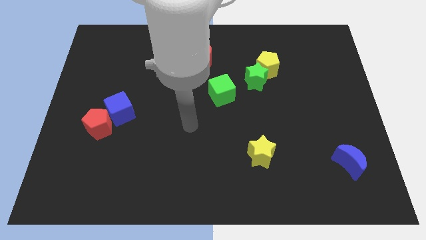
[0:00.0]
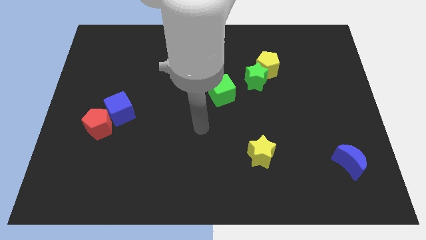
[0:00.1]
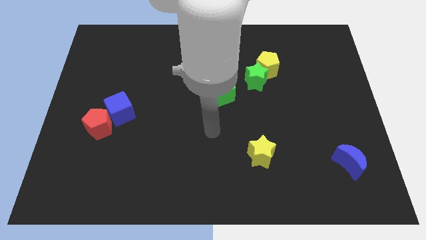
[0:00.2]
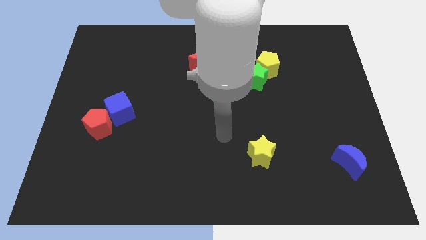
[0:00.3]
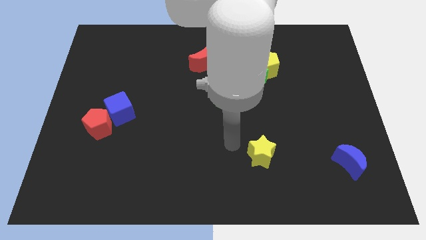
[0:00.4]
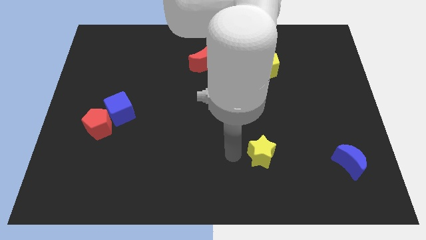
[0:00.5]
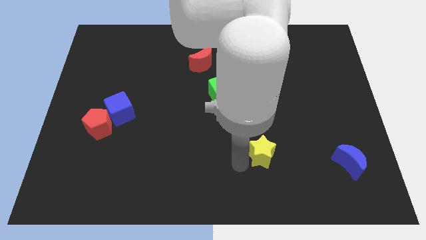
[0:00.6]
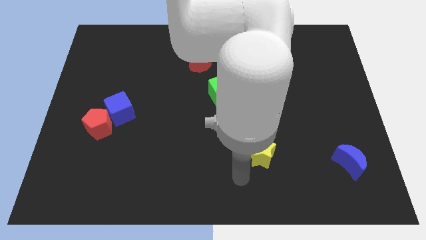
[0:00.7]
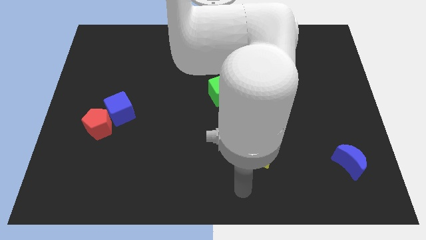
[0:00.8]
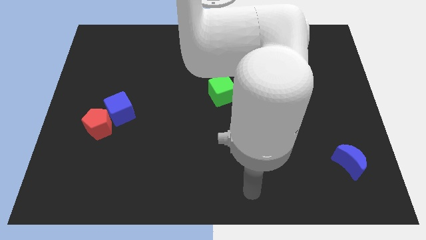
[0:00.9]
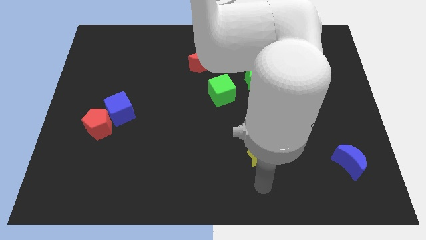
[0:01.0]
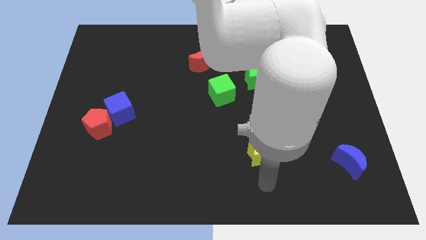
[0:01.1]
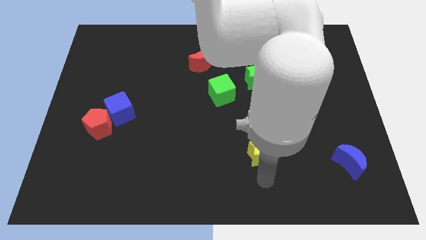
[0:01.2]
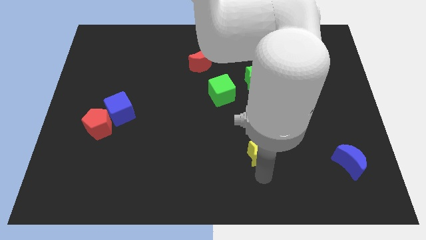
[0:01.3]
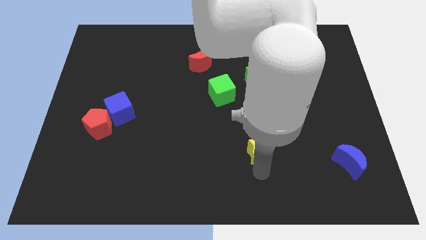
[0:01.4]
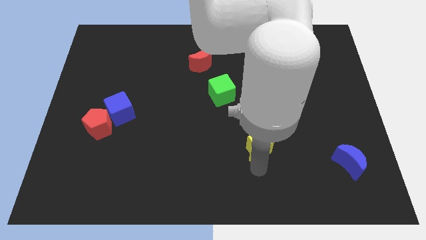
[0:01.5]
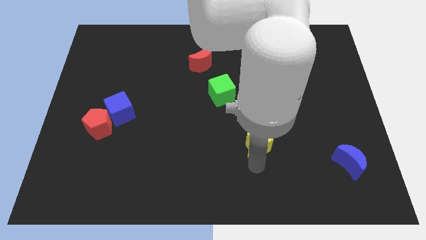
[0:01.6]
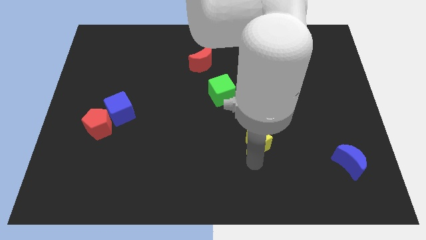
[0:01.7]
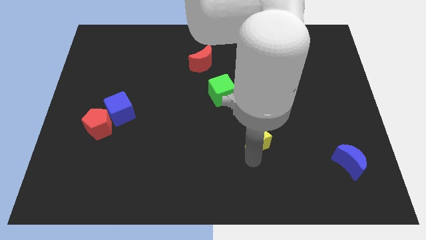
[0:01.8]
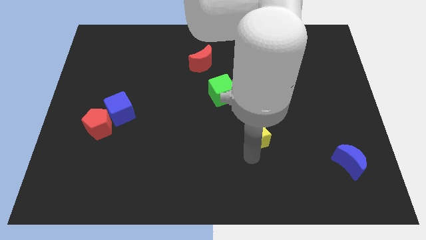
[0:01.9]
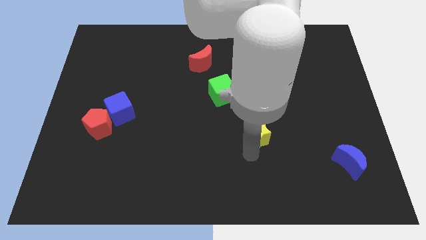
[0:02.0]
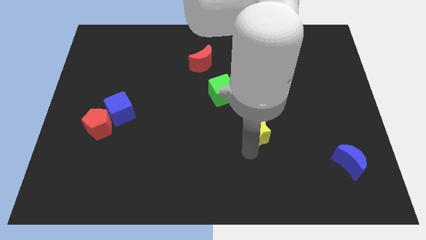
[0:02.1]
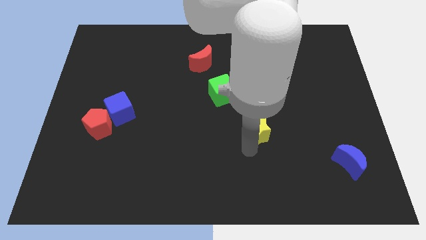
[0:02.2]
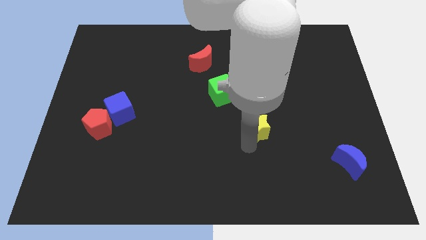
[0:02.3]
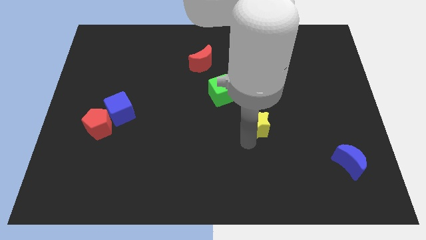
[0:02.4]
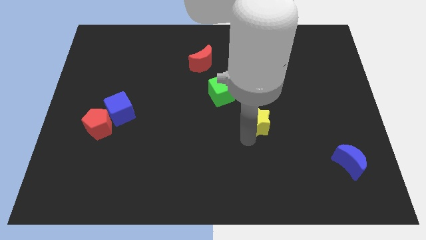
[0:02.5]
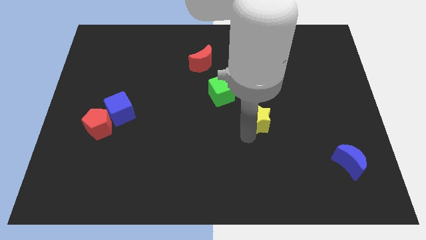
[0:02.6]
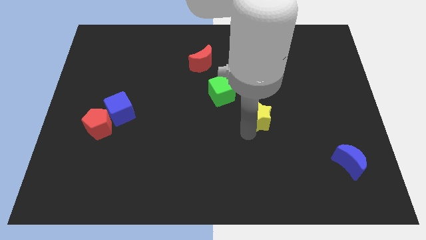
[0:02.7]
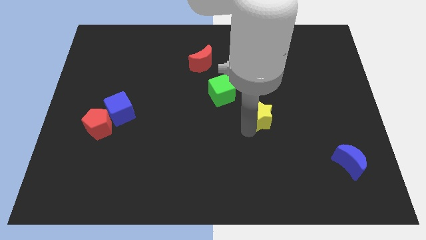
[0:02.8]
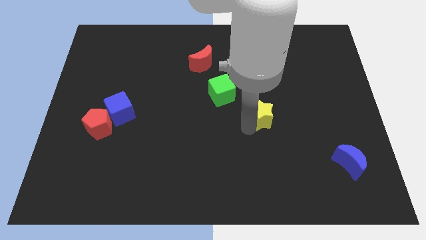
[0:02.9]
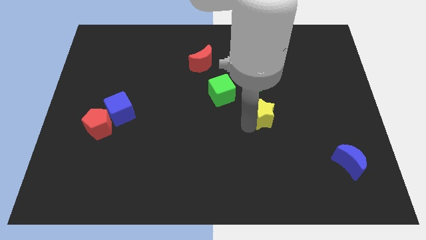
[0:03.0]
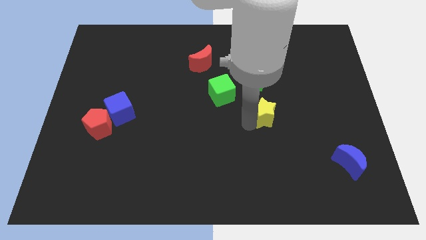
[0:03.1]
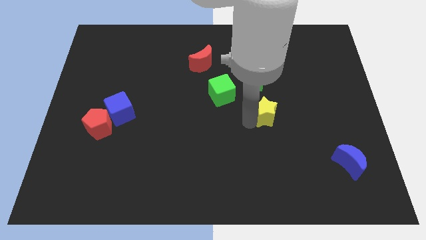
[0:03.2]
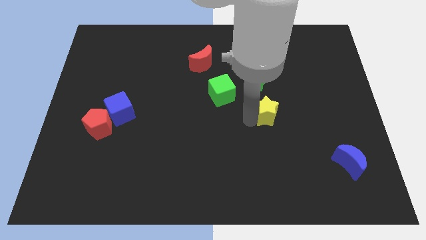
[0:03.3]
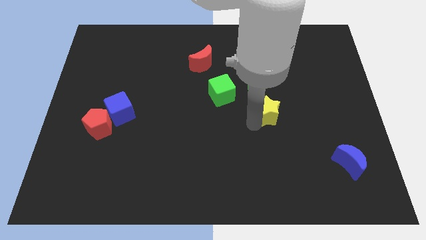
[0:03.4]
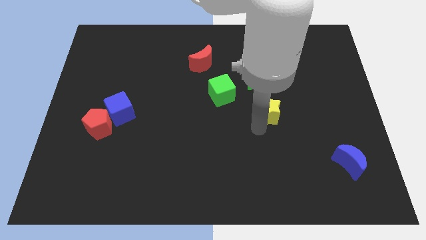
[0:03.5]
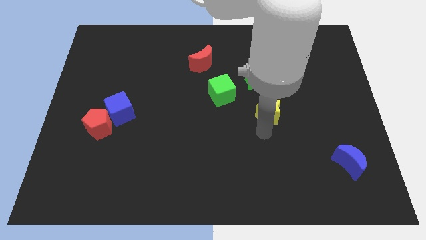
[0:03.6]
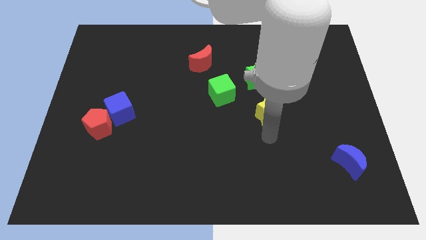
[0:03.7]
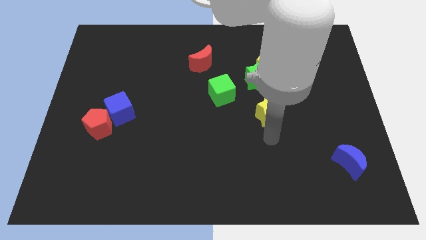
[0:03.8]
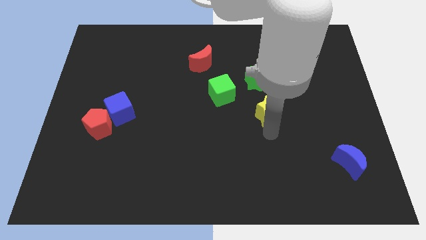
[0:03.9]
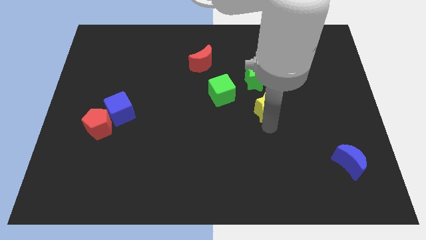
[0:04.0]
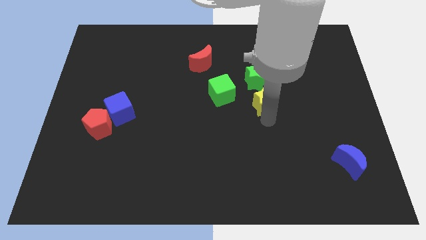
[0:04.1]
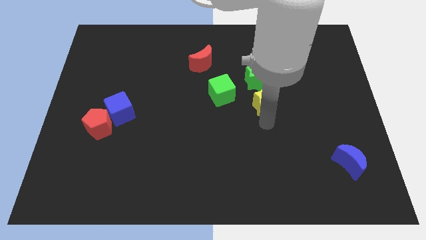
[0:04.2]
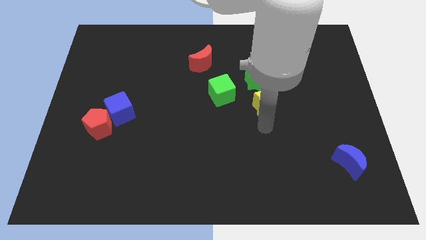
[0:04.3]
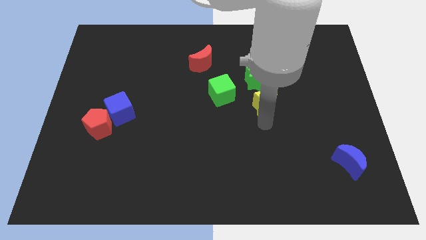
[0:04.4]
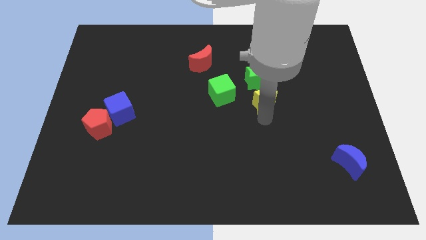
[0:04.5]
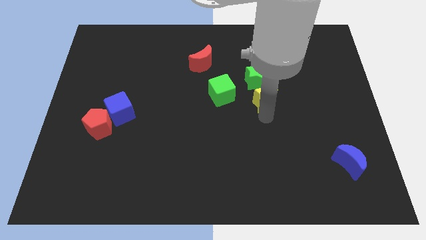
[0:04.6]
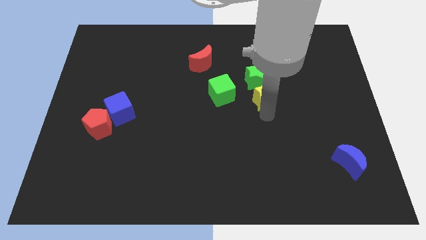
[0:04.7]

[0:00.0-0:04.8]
slide the yellow star to the green star

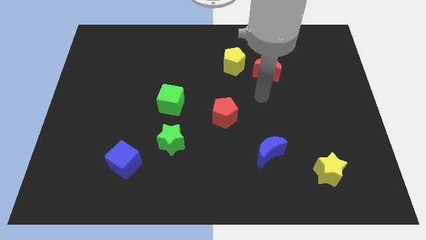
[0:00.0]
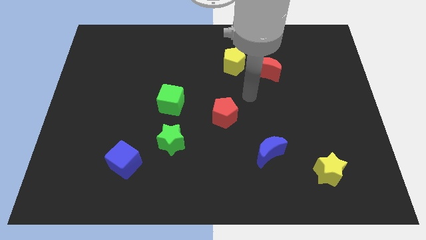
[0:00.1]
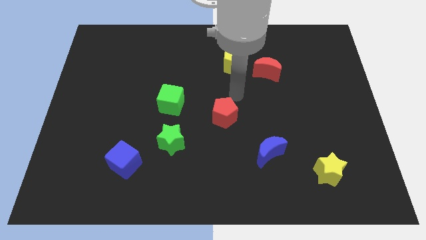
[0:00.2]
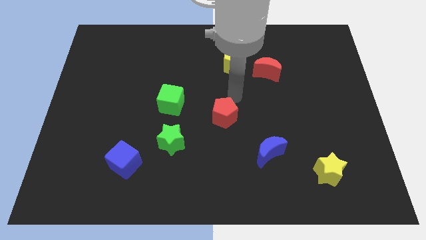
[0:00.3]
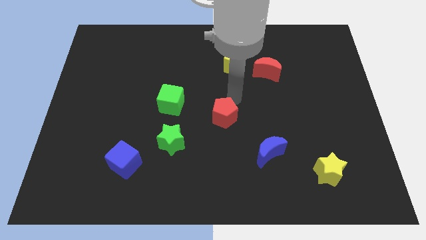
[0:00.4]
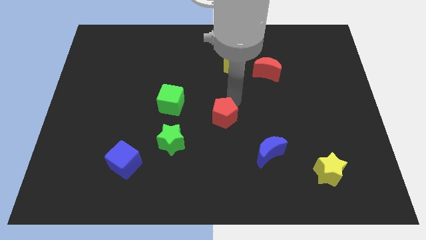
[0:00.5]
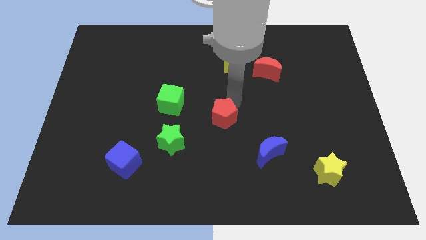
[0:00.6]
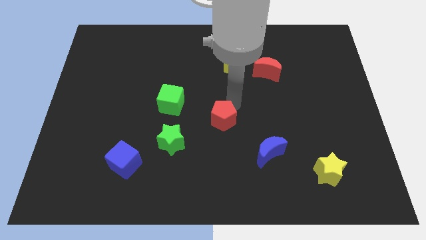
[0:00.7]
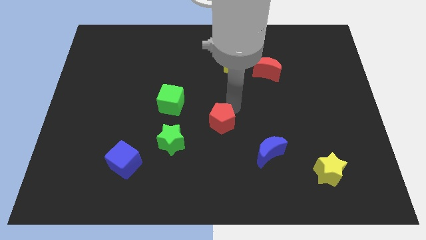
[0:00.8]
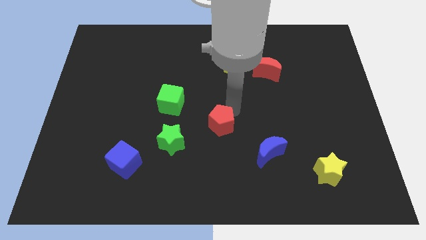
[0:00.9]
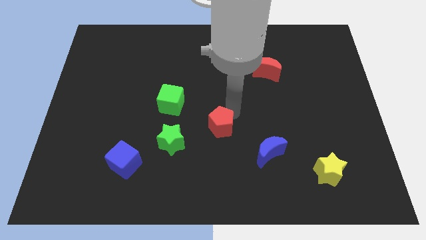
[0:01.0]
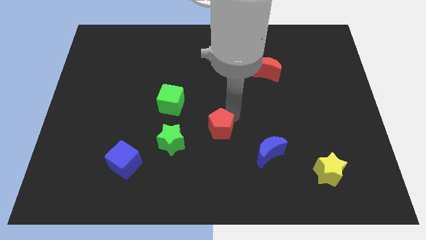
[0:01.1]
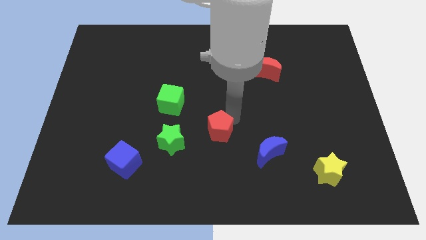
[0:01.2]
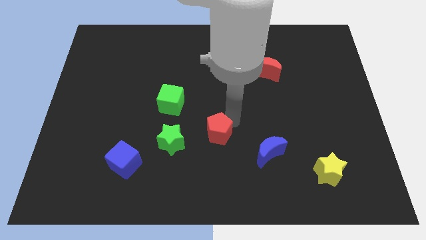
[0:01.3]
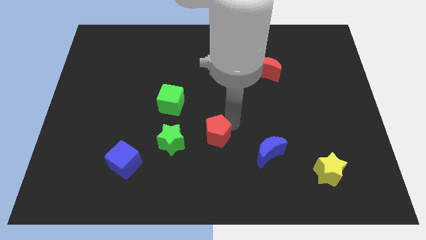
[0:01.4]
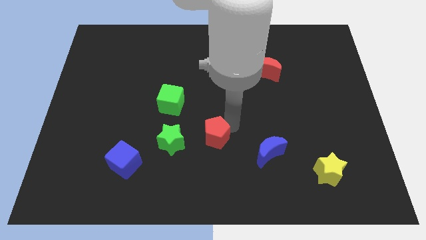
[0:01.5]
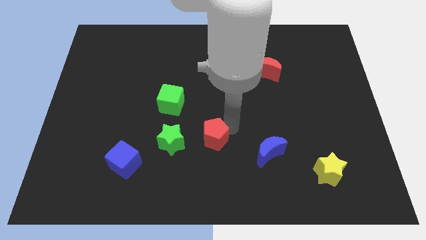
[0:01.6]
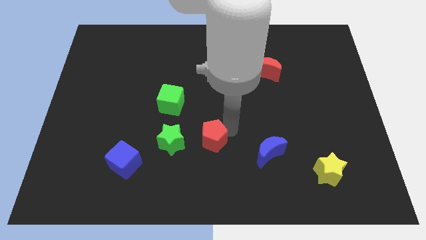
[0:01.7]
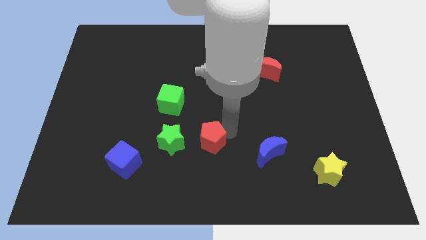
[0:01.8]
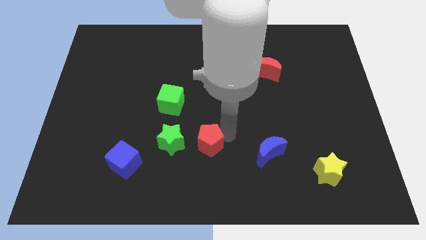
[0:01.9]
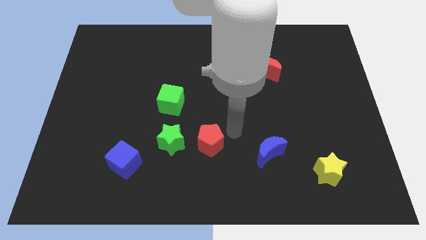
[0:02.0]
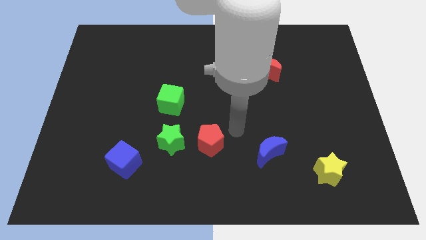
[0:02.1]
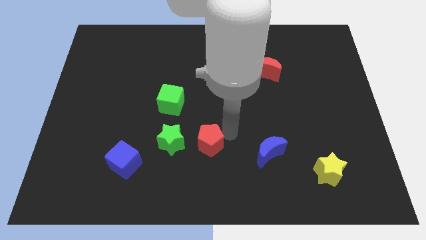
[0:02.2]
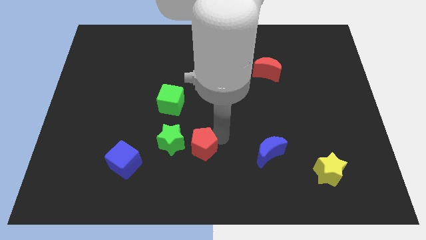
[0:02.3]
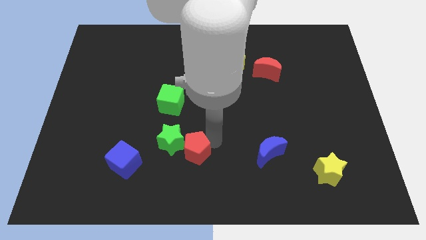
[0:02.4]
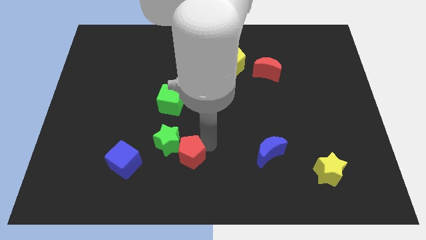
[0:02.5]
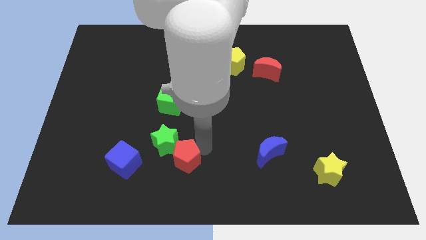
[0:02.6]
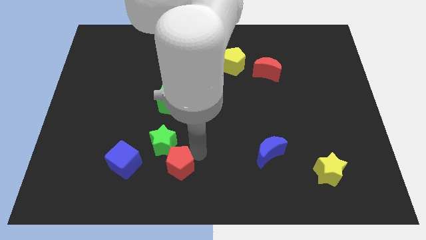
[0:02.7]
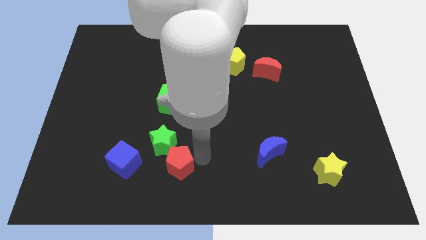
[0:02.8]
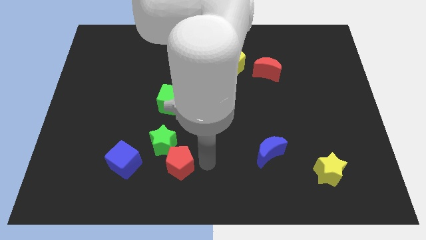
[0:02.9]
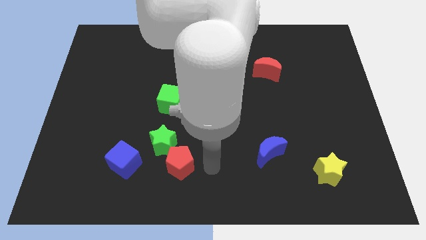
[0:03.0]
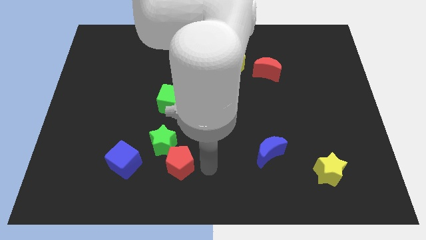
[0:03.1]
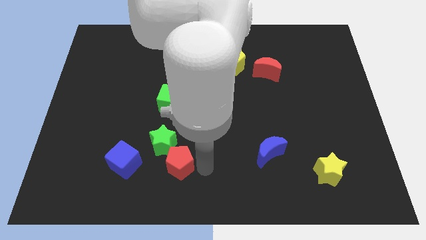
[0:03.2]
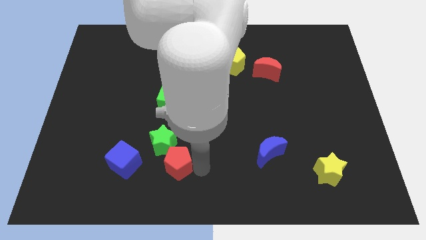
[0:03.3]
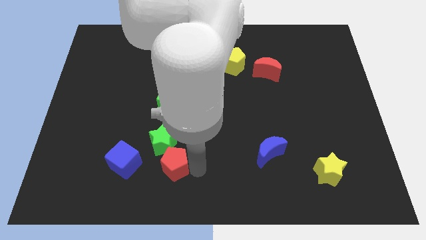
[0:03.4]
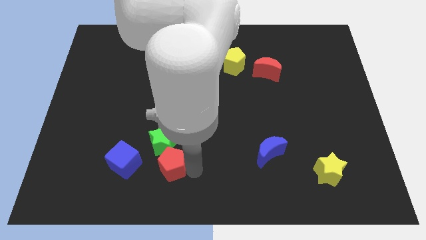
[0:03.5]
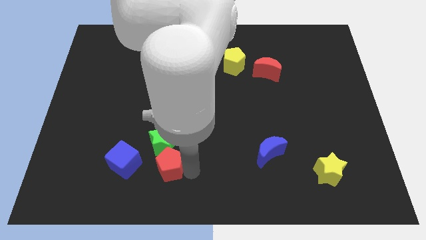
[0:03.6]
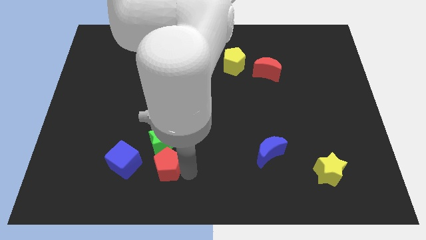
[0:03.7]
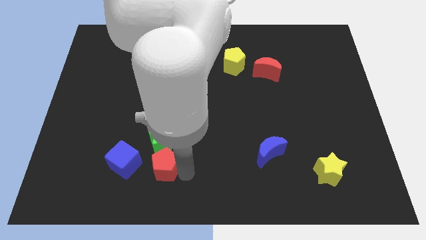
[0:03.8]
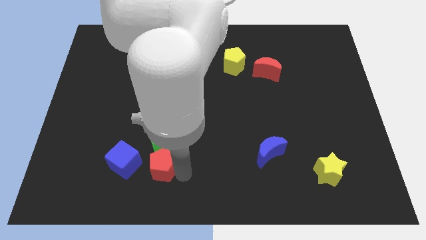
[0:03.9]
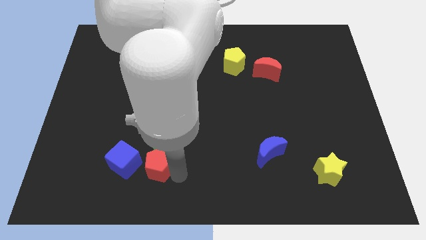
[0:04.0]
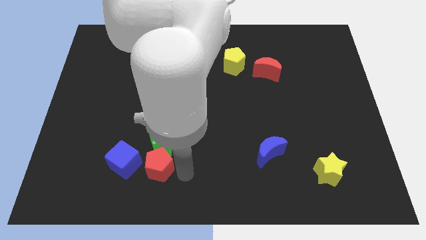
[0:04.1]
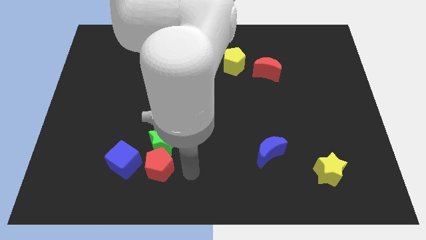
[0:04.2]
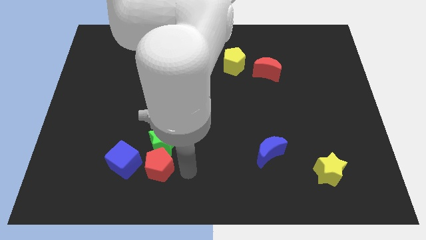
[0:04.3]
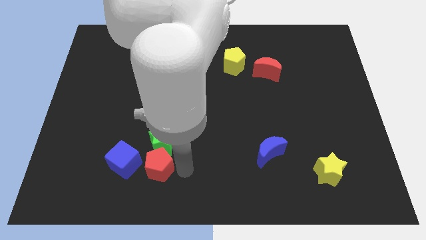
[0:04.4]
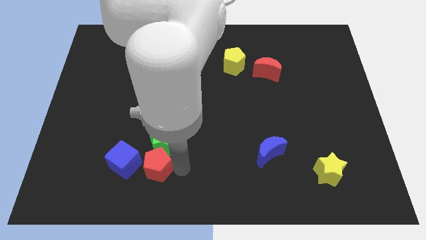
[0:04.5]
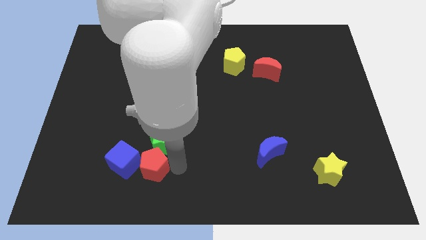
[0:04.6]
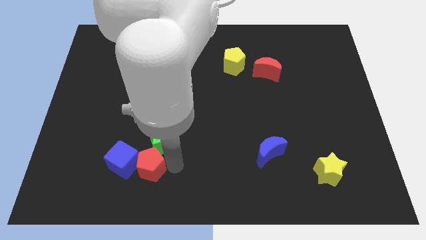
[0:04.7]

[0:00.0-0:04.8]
slide the red pentagon next to the blue cube
